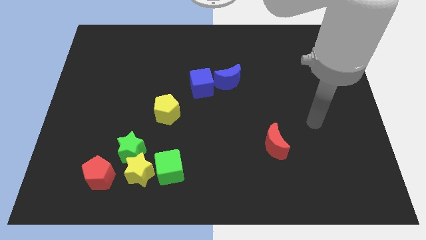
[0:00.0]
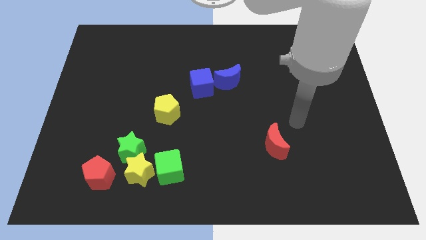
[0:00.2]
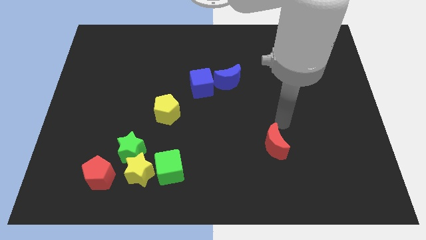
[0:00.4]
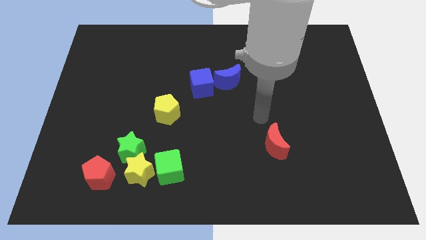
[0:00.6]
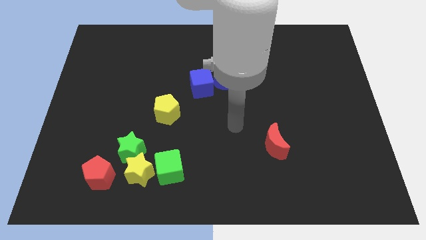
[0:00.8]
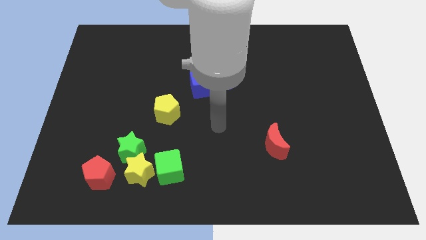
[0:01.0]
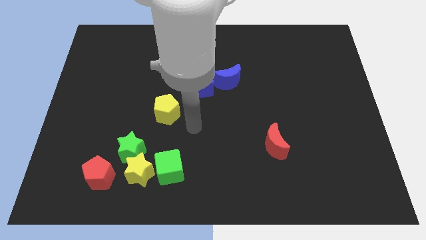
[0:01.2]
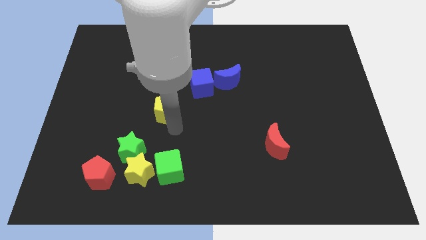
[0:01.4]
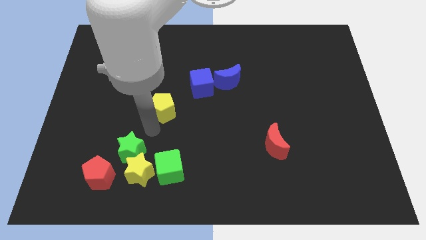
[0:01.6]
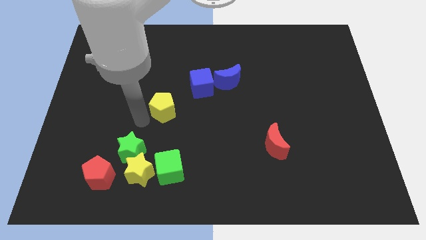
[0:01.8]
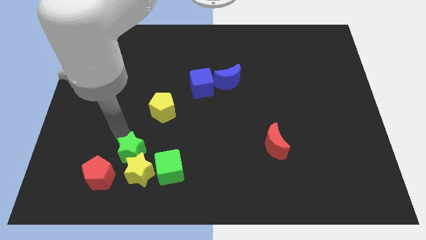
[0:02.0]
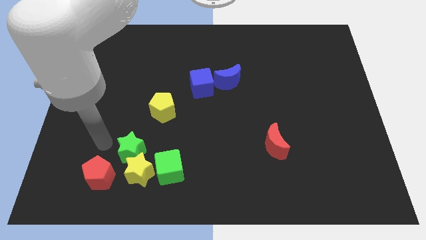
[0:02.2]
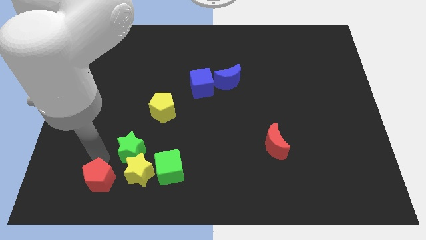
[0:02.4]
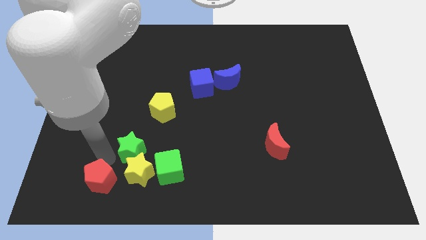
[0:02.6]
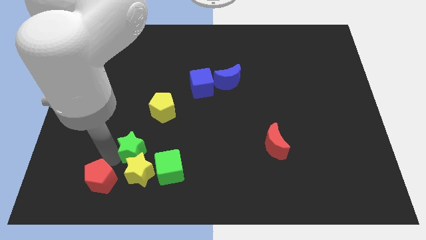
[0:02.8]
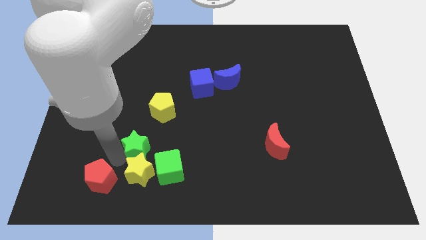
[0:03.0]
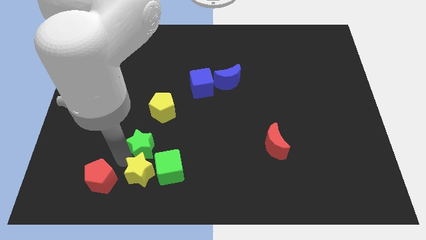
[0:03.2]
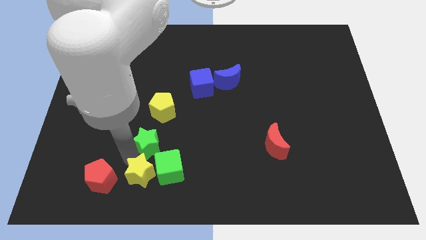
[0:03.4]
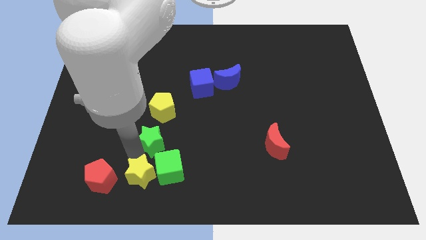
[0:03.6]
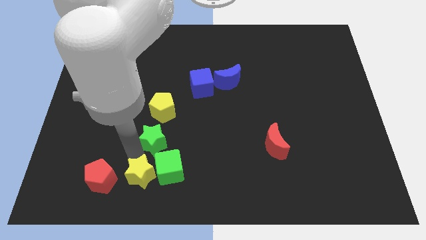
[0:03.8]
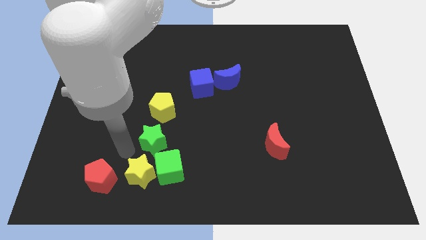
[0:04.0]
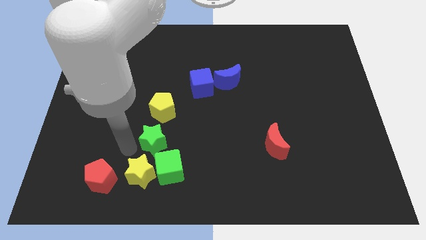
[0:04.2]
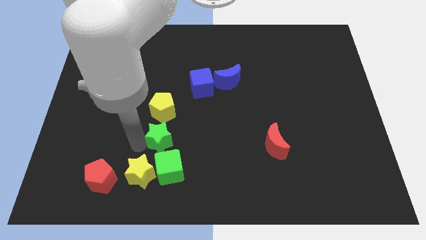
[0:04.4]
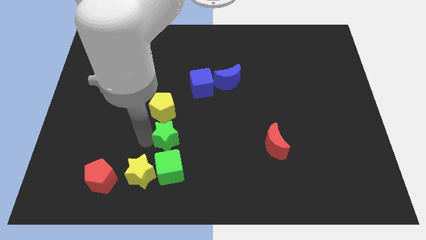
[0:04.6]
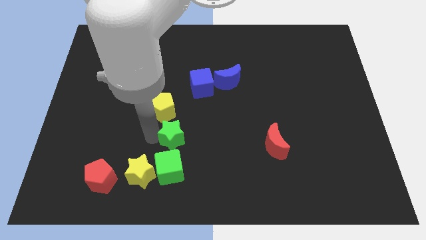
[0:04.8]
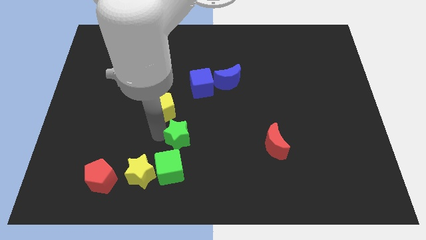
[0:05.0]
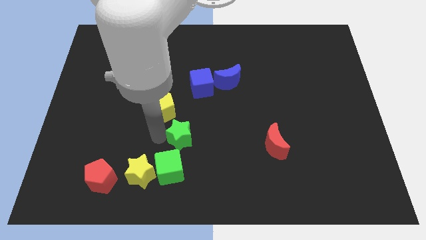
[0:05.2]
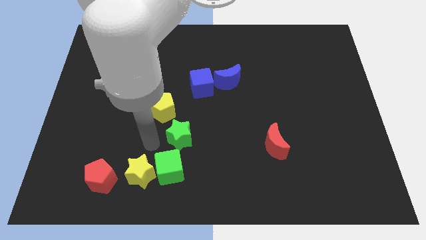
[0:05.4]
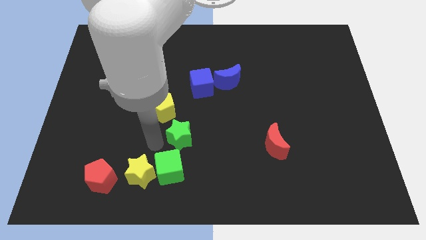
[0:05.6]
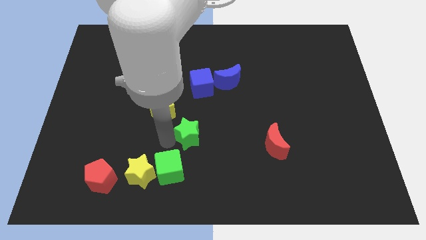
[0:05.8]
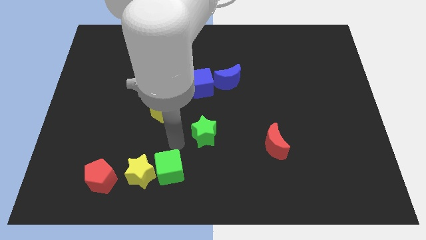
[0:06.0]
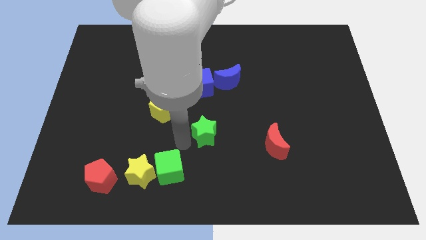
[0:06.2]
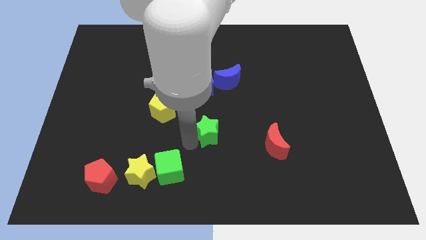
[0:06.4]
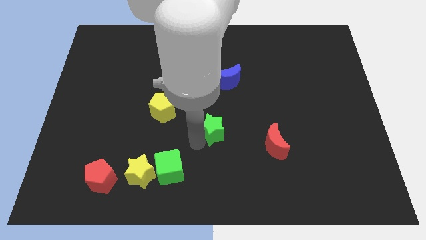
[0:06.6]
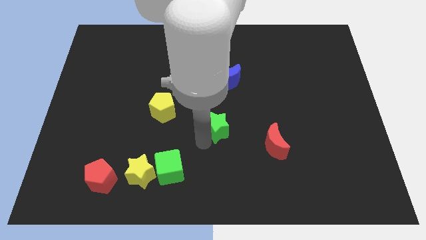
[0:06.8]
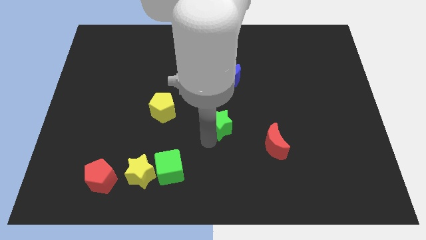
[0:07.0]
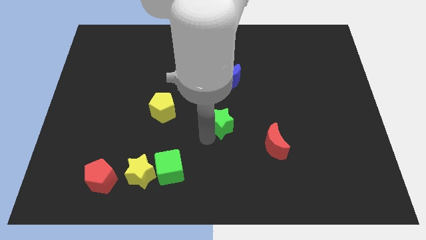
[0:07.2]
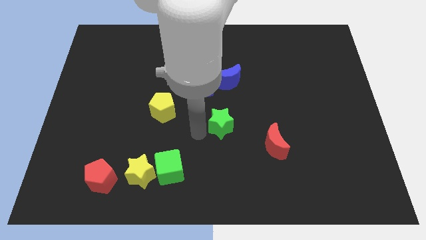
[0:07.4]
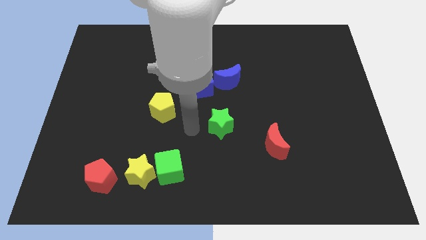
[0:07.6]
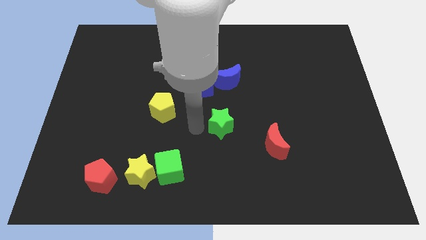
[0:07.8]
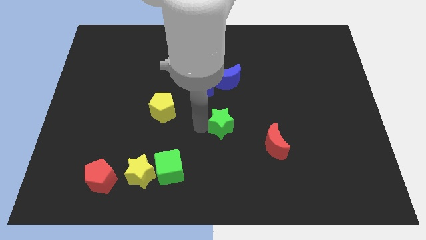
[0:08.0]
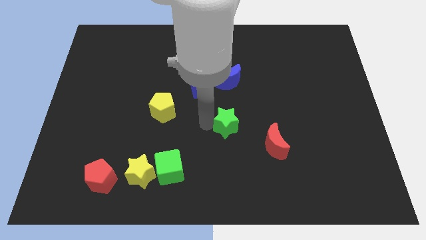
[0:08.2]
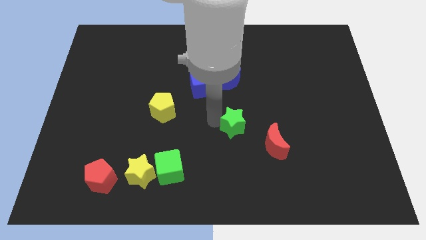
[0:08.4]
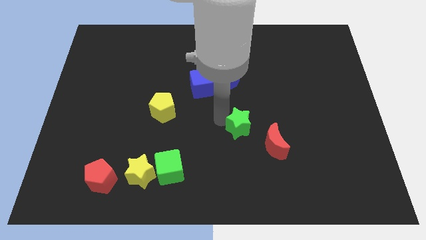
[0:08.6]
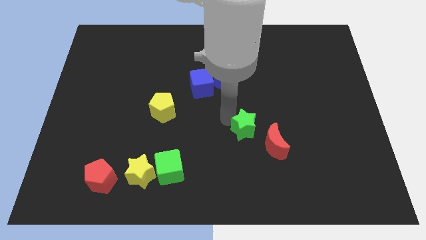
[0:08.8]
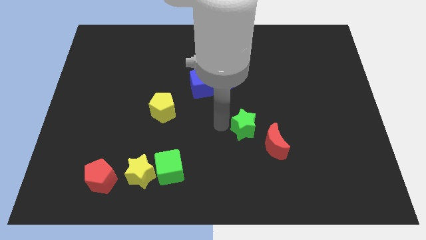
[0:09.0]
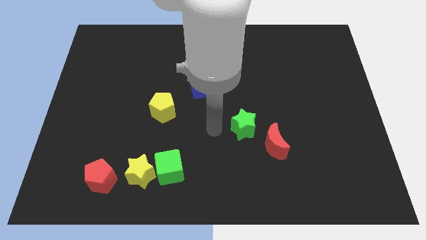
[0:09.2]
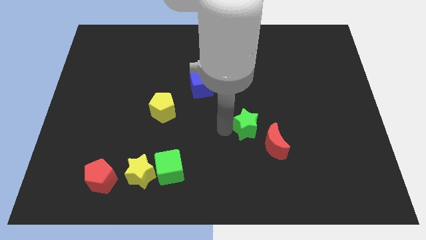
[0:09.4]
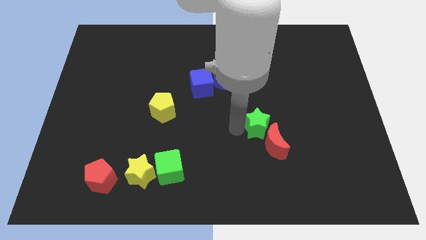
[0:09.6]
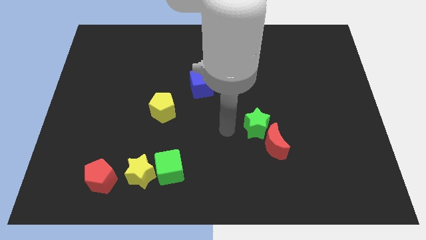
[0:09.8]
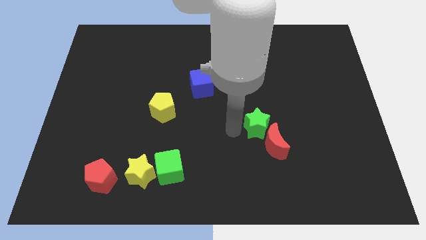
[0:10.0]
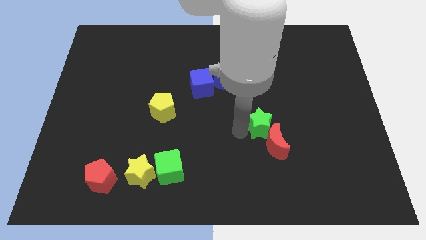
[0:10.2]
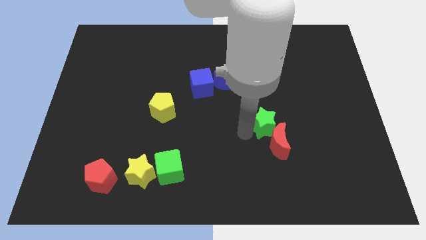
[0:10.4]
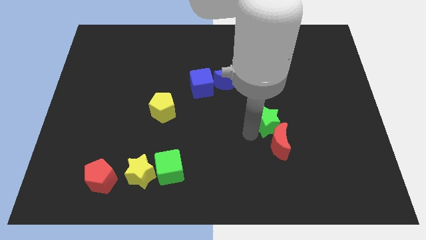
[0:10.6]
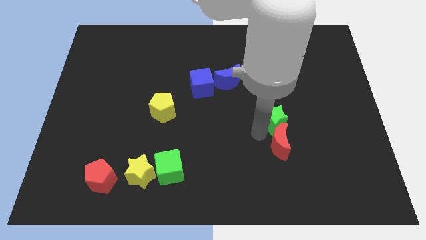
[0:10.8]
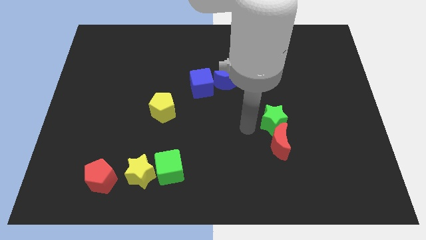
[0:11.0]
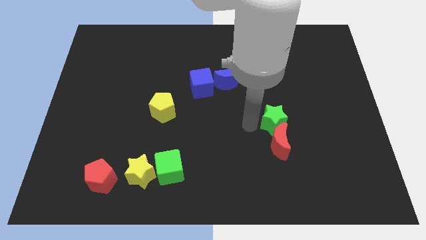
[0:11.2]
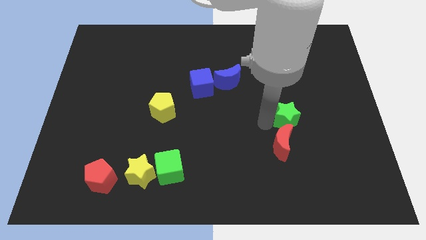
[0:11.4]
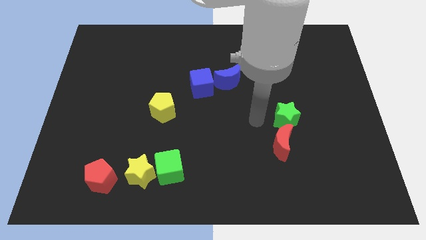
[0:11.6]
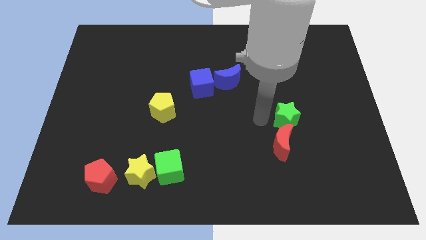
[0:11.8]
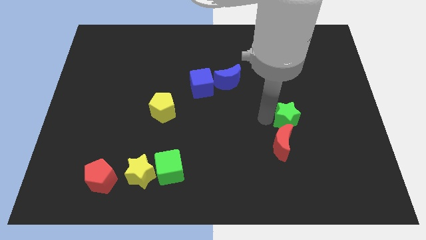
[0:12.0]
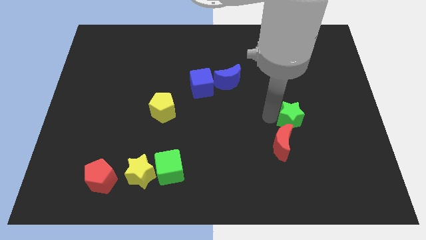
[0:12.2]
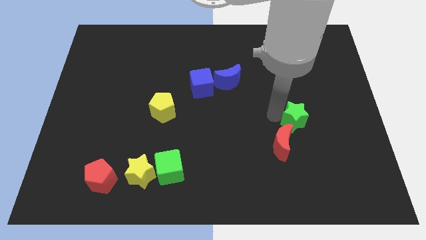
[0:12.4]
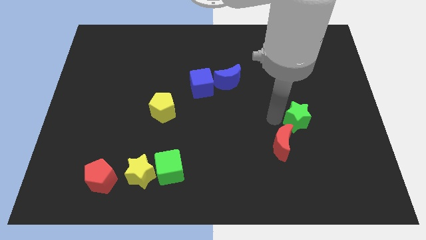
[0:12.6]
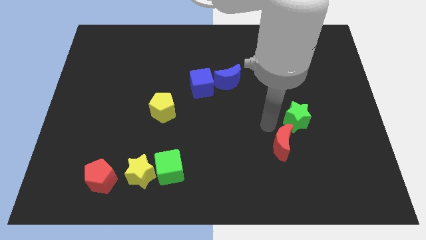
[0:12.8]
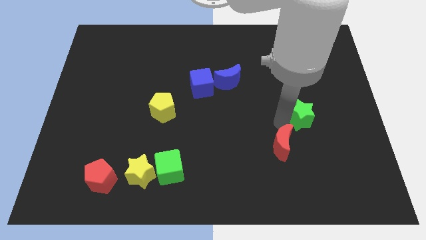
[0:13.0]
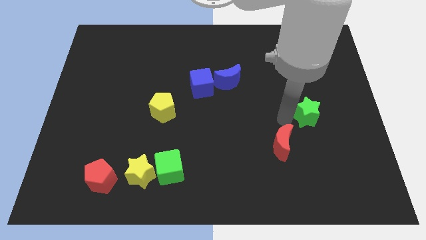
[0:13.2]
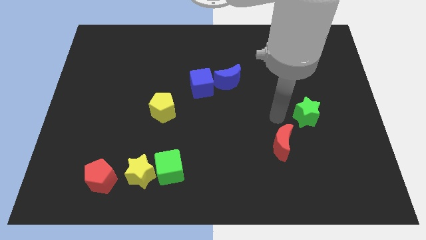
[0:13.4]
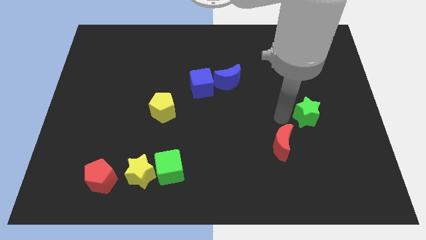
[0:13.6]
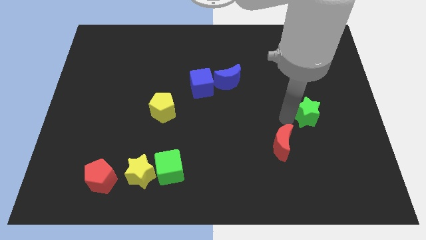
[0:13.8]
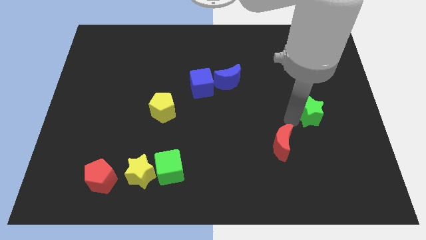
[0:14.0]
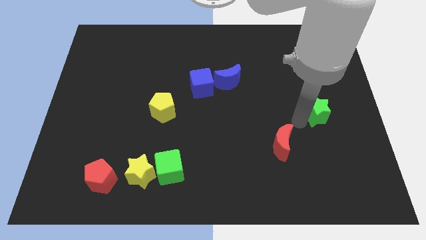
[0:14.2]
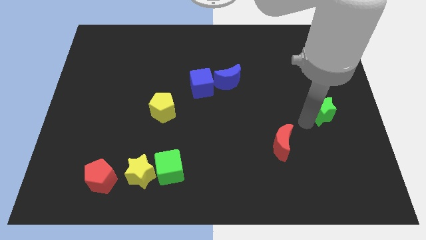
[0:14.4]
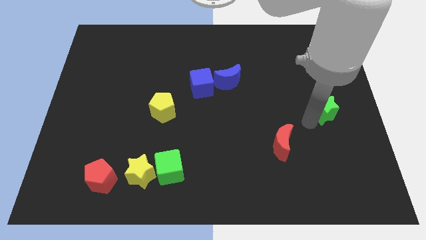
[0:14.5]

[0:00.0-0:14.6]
put the green star to the center right

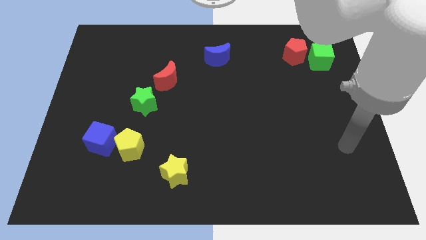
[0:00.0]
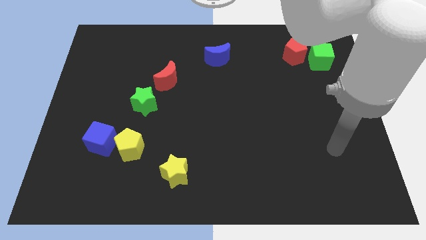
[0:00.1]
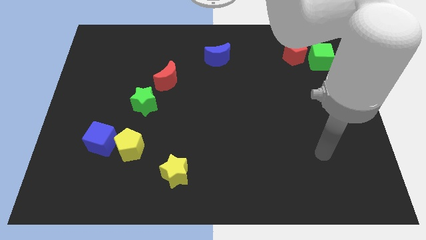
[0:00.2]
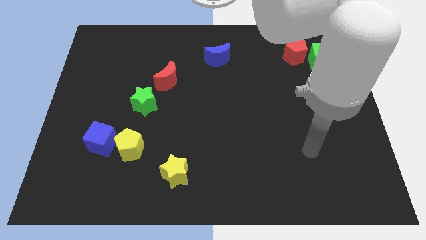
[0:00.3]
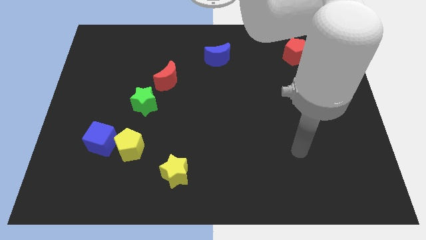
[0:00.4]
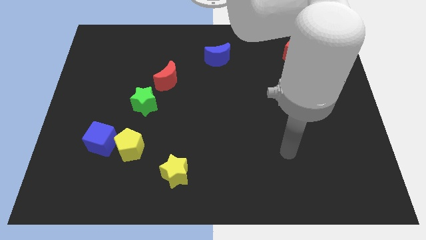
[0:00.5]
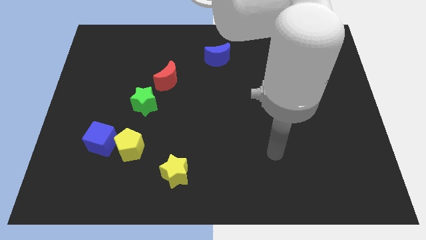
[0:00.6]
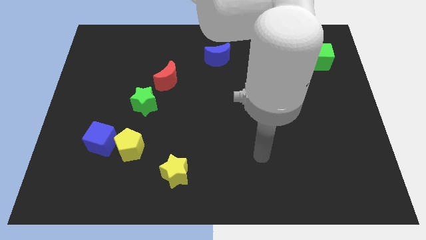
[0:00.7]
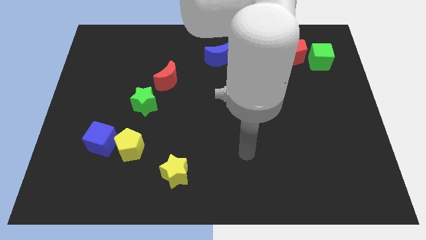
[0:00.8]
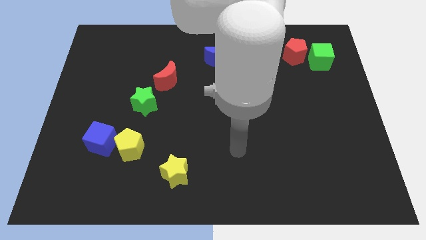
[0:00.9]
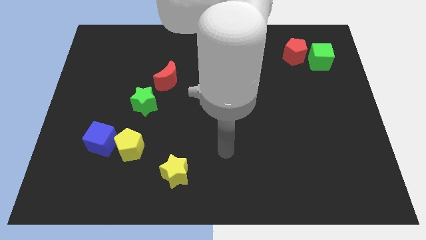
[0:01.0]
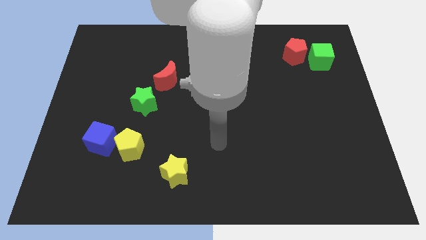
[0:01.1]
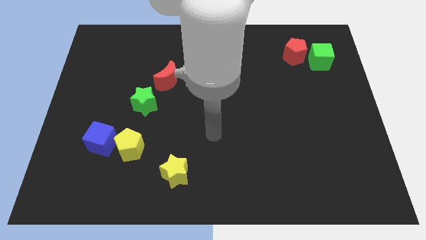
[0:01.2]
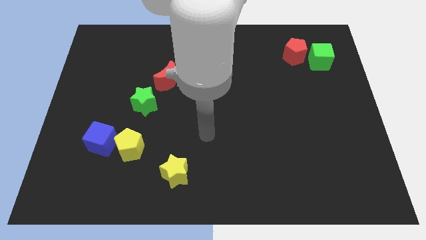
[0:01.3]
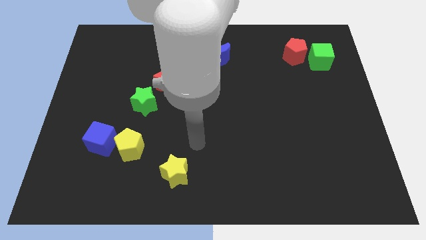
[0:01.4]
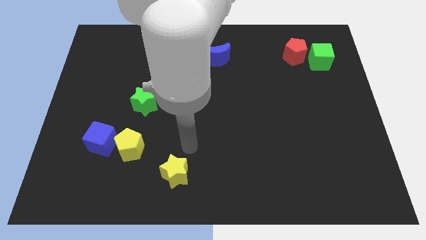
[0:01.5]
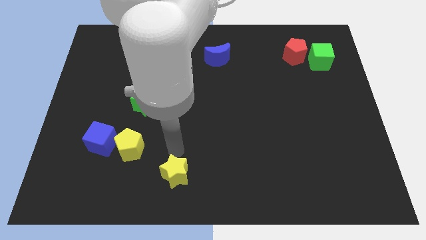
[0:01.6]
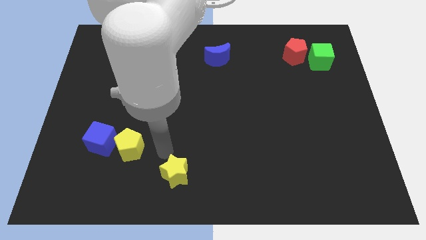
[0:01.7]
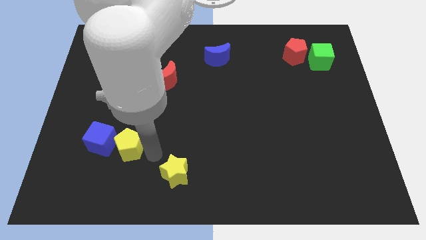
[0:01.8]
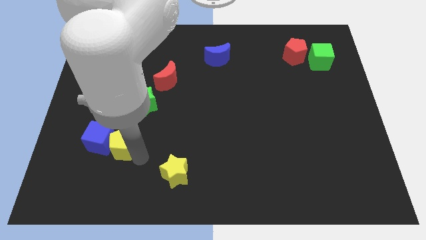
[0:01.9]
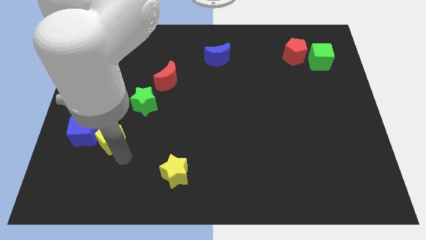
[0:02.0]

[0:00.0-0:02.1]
push the blue cube to the left side
